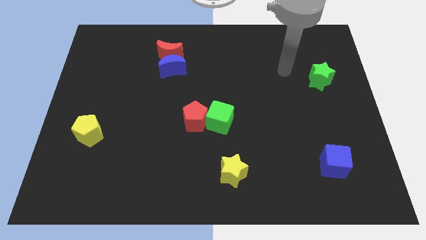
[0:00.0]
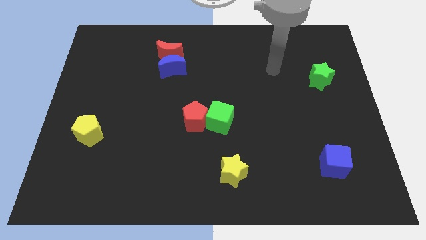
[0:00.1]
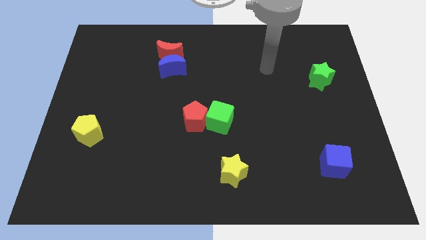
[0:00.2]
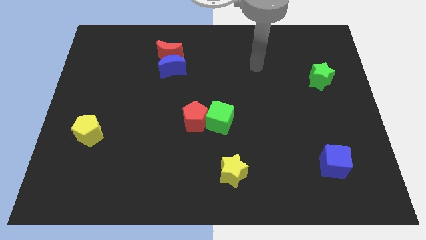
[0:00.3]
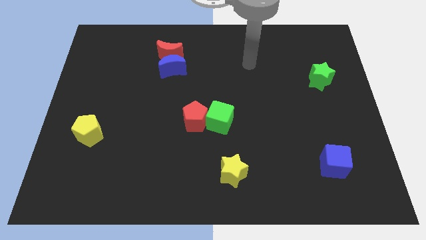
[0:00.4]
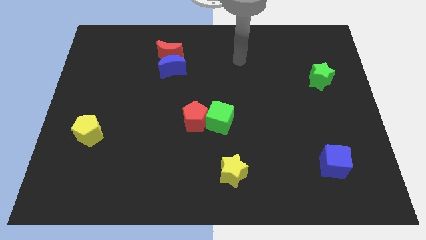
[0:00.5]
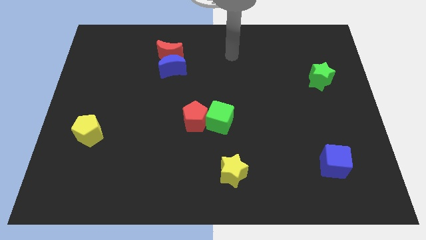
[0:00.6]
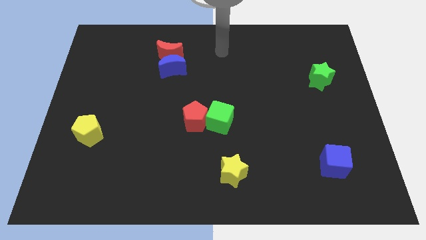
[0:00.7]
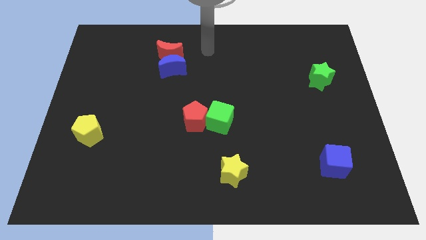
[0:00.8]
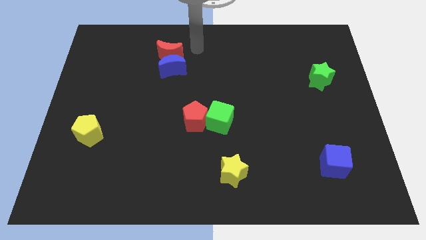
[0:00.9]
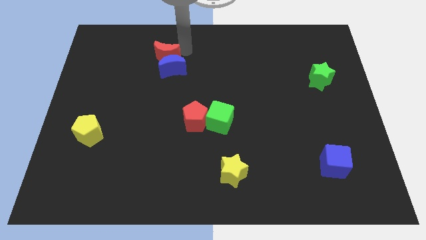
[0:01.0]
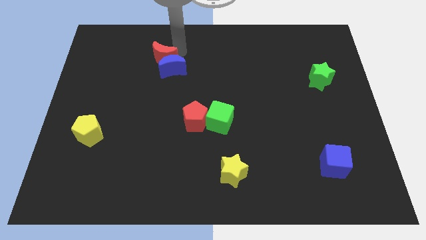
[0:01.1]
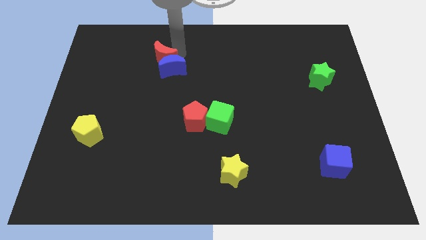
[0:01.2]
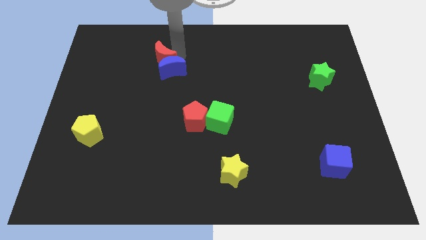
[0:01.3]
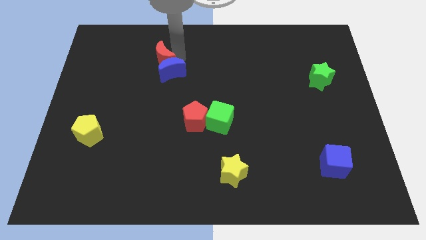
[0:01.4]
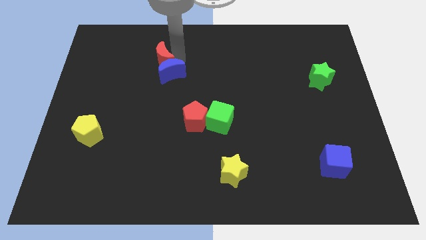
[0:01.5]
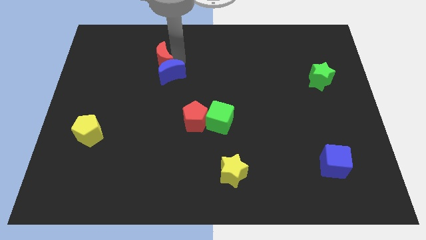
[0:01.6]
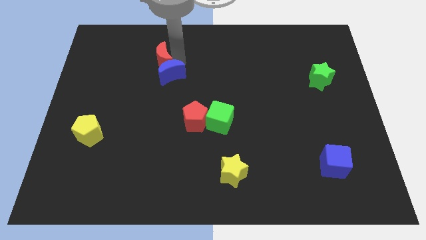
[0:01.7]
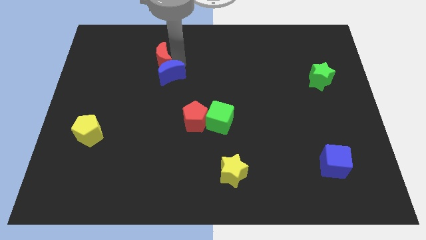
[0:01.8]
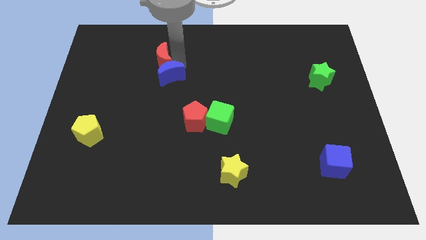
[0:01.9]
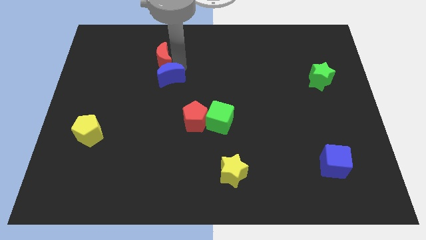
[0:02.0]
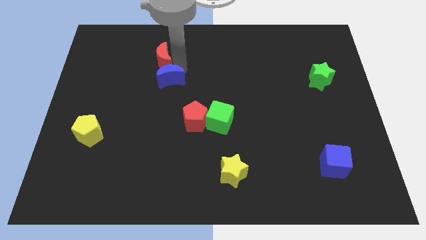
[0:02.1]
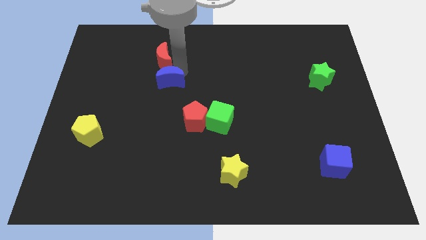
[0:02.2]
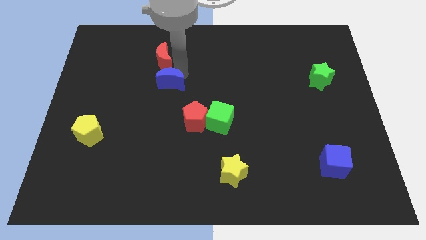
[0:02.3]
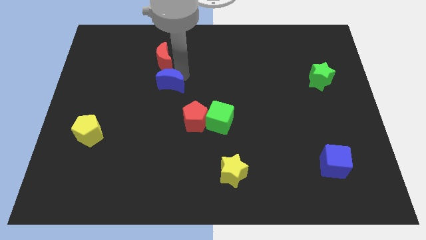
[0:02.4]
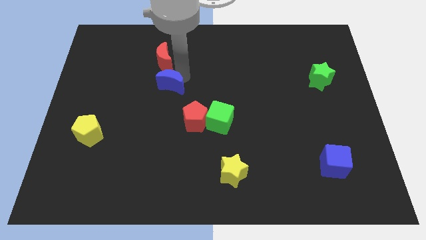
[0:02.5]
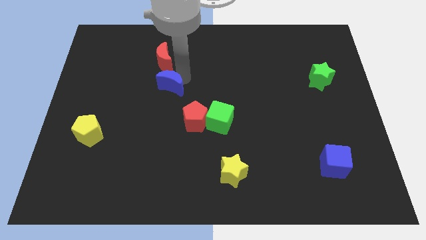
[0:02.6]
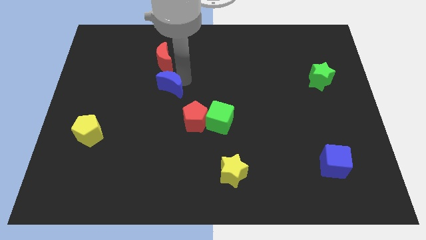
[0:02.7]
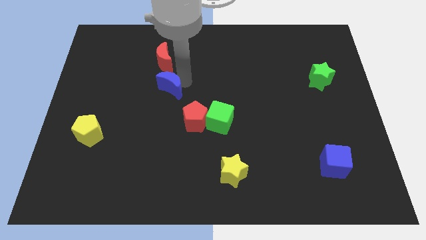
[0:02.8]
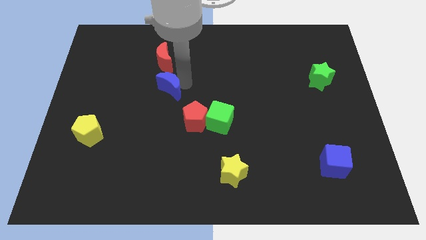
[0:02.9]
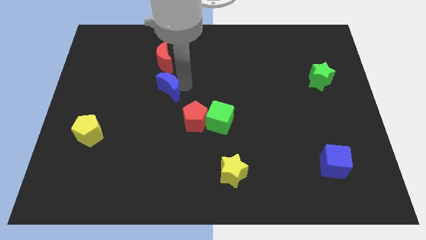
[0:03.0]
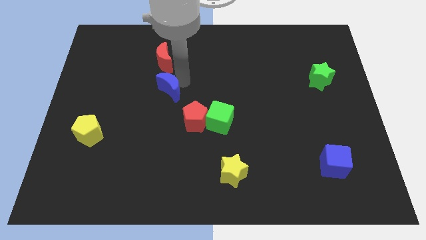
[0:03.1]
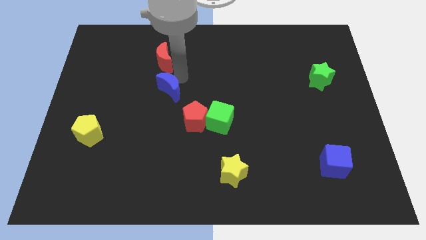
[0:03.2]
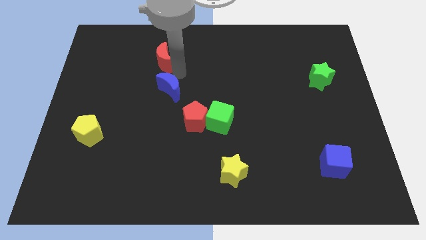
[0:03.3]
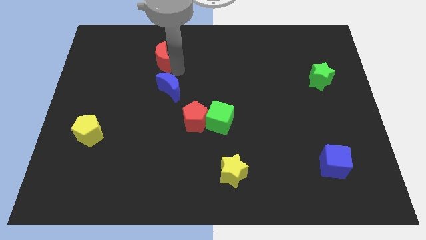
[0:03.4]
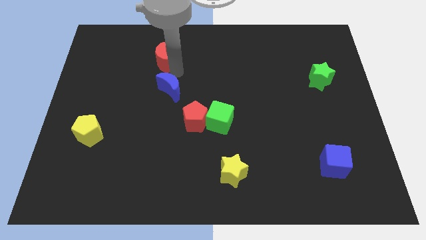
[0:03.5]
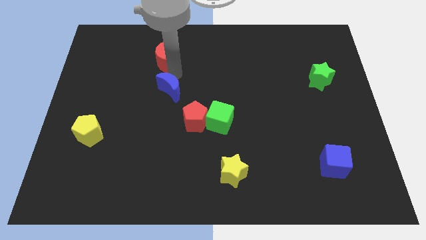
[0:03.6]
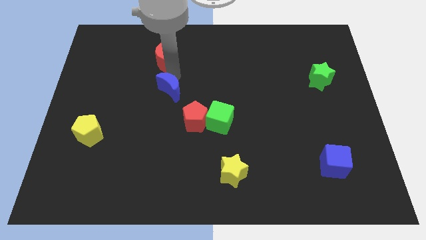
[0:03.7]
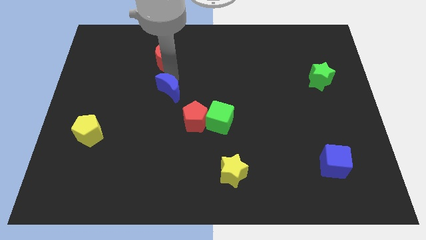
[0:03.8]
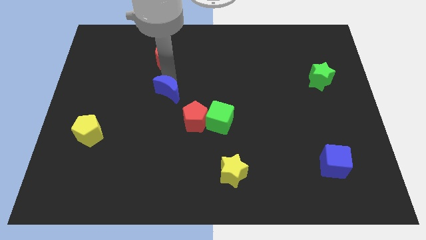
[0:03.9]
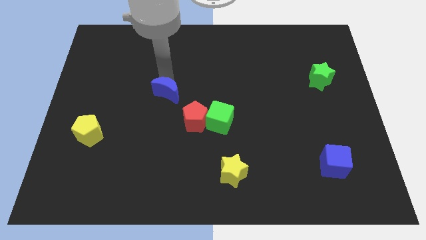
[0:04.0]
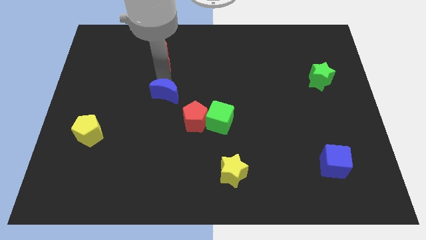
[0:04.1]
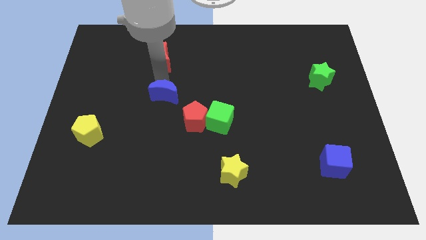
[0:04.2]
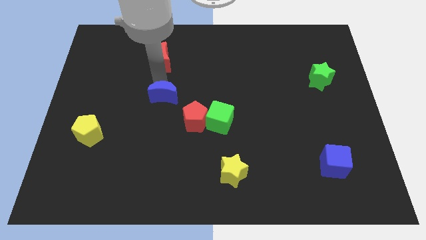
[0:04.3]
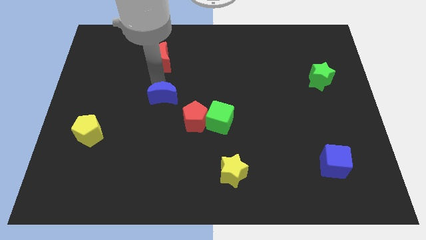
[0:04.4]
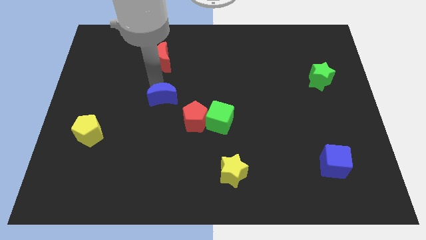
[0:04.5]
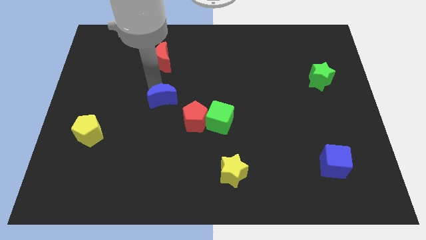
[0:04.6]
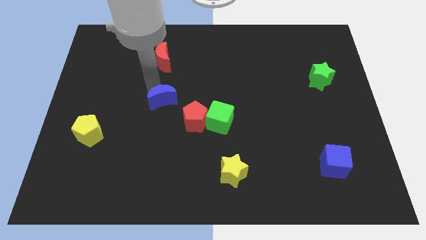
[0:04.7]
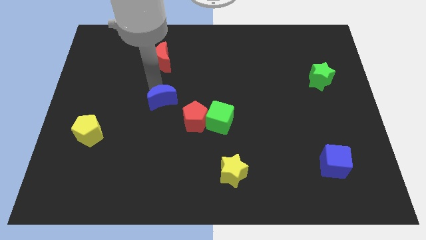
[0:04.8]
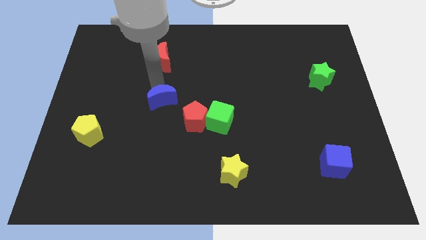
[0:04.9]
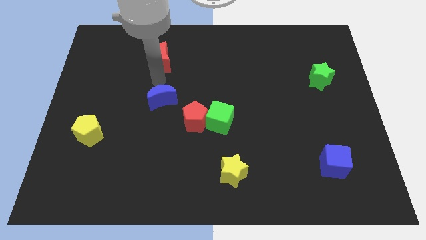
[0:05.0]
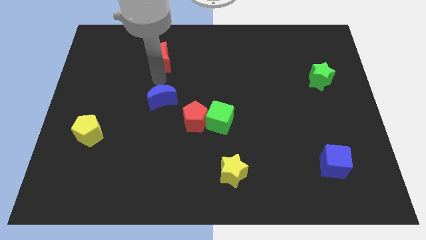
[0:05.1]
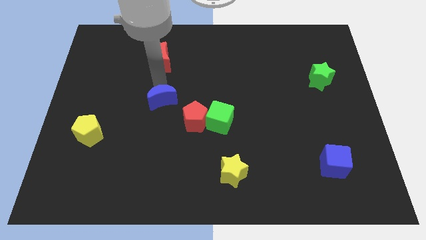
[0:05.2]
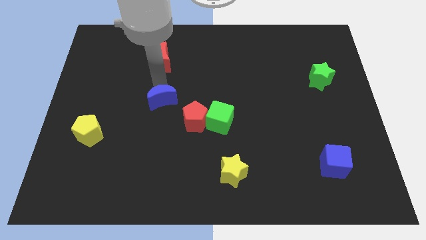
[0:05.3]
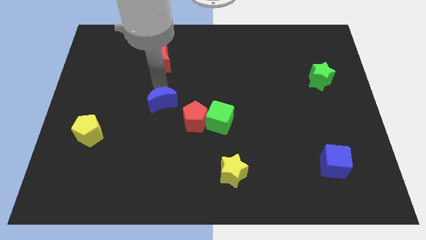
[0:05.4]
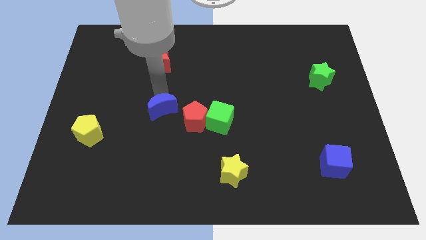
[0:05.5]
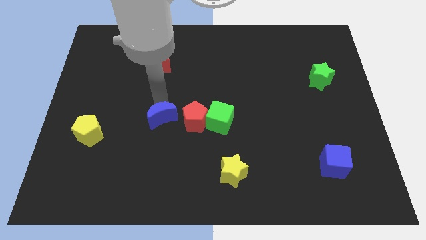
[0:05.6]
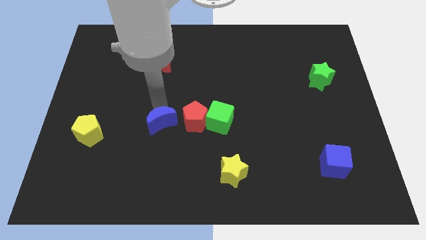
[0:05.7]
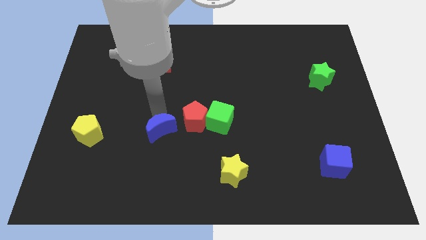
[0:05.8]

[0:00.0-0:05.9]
move the blue moon to the bottom left of the red pentagon

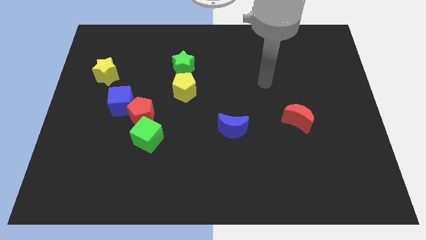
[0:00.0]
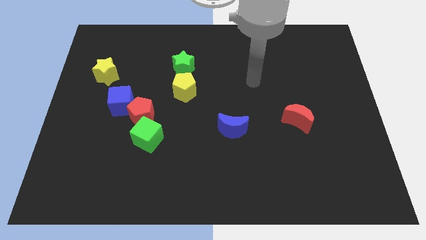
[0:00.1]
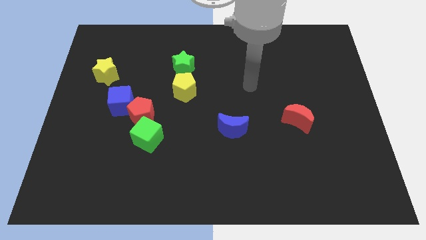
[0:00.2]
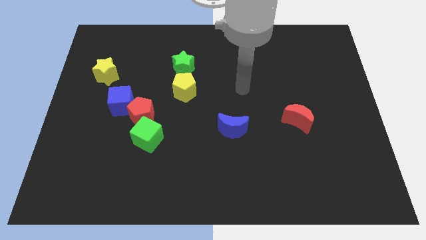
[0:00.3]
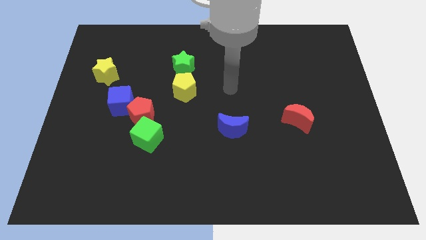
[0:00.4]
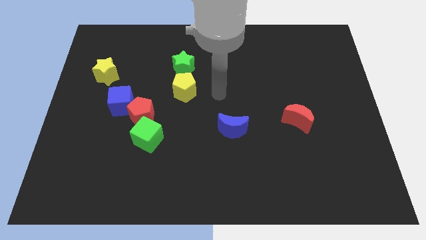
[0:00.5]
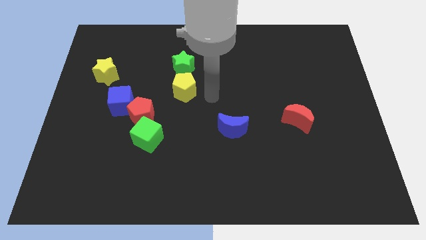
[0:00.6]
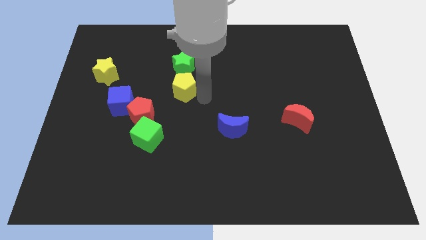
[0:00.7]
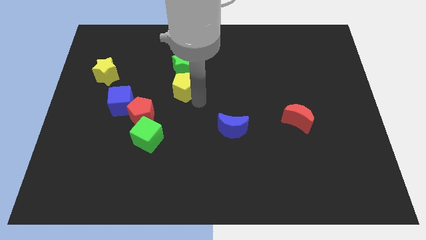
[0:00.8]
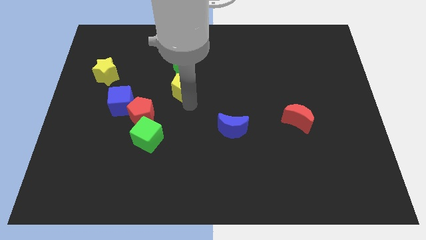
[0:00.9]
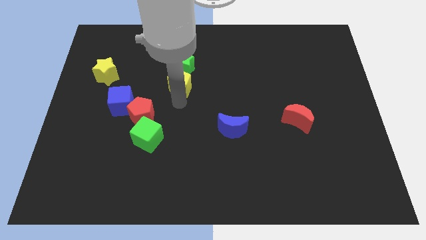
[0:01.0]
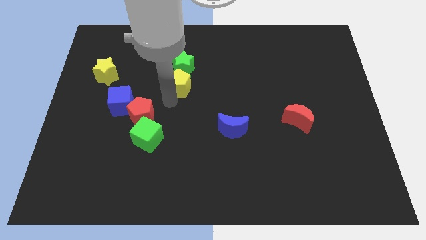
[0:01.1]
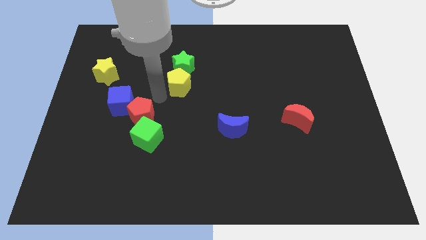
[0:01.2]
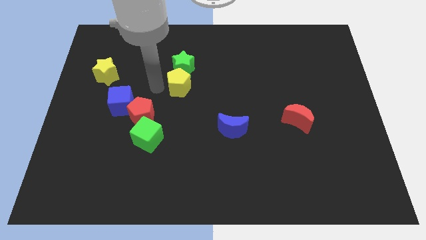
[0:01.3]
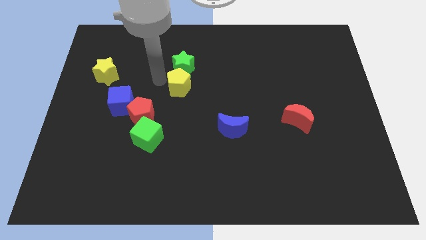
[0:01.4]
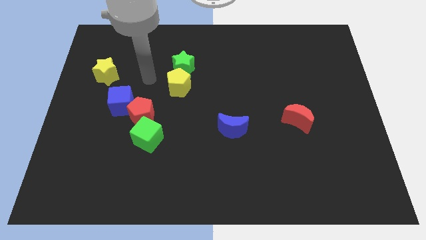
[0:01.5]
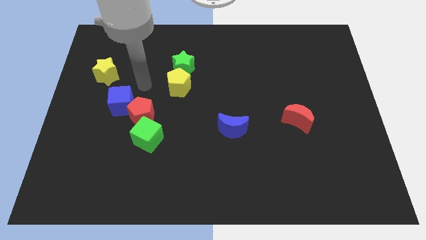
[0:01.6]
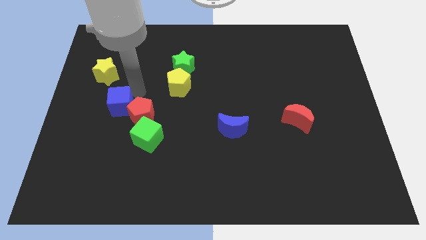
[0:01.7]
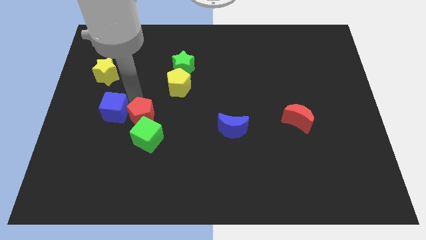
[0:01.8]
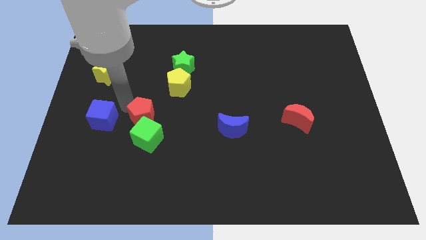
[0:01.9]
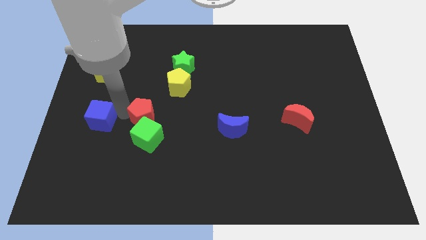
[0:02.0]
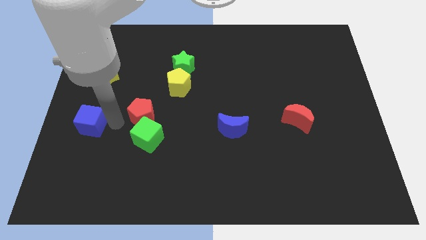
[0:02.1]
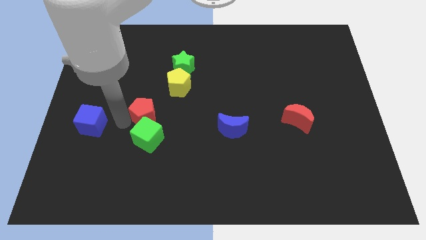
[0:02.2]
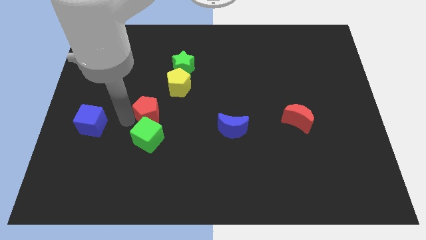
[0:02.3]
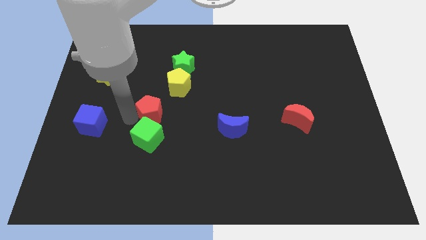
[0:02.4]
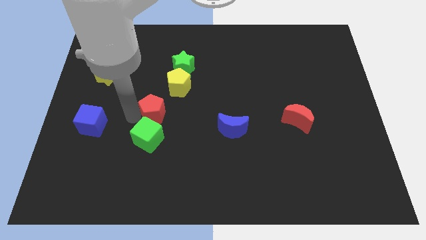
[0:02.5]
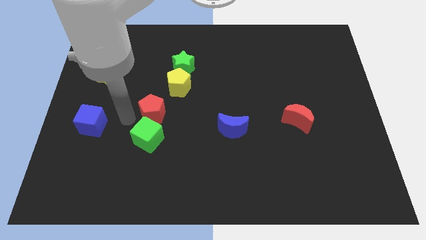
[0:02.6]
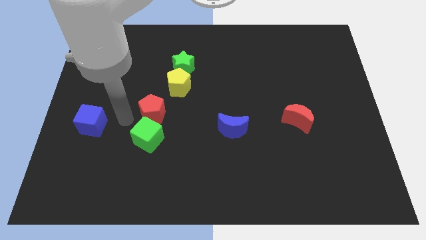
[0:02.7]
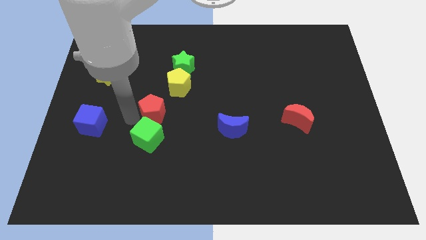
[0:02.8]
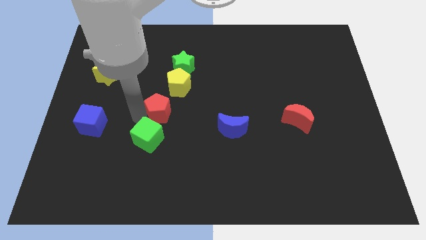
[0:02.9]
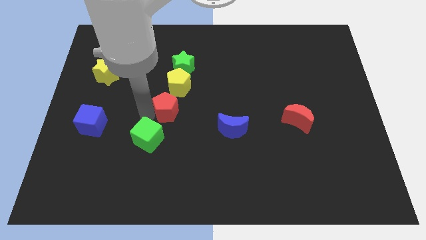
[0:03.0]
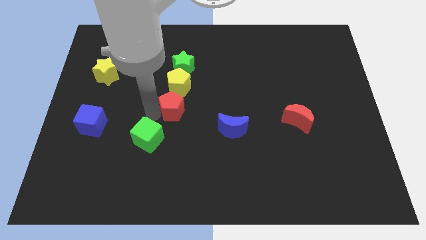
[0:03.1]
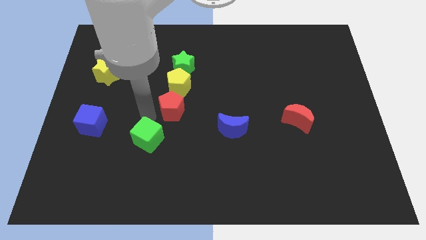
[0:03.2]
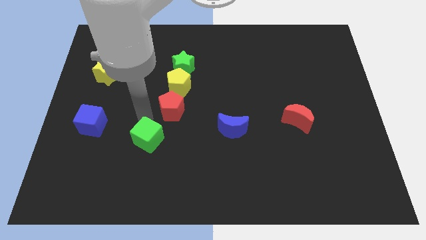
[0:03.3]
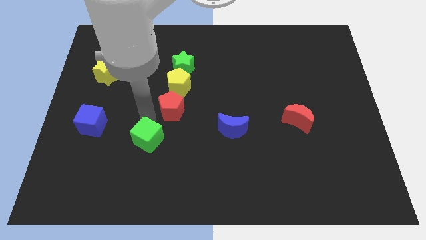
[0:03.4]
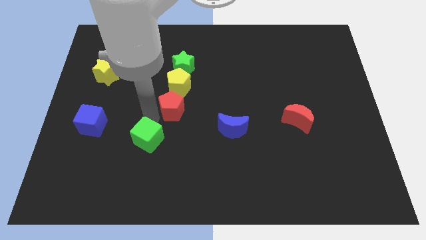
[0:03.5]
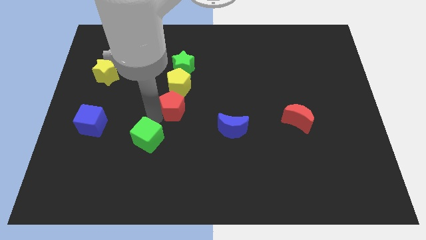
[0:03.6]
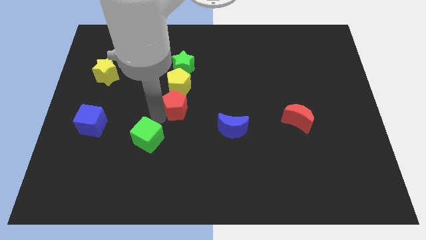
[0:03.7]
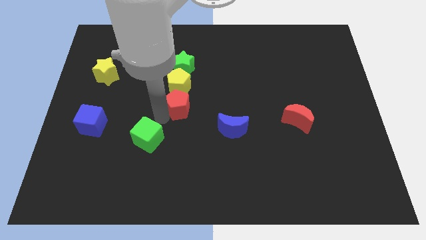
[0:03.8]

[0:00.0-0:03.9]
move the red pentagon to the bottom right of the yellow pentagon
